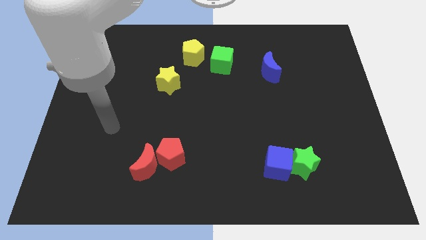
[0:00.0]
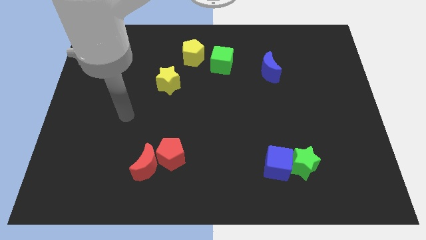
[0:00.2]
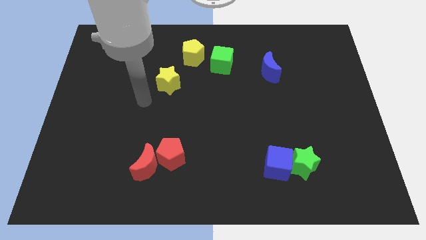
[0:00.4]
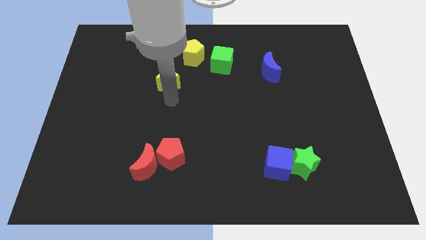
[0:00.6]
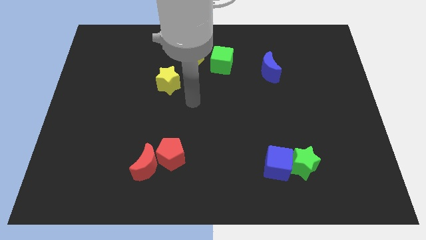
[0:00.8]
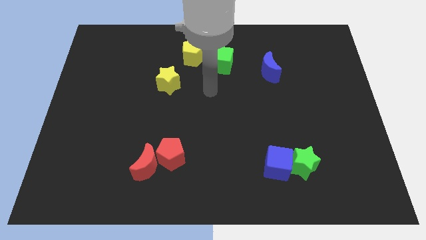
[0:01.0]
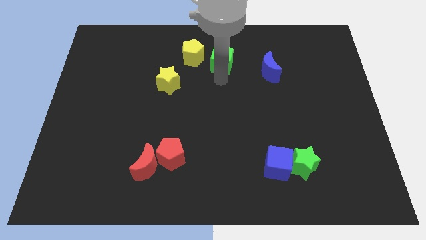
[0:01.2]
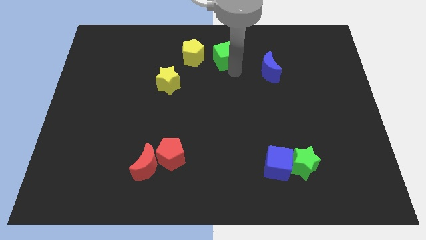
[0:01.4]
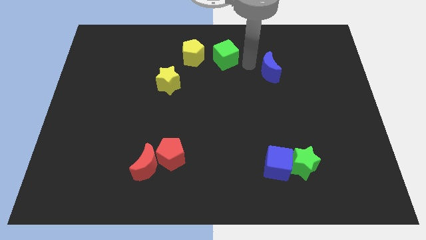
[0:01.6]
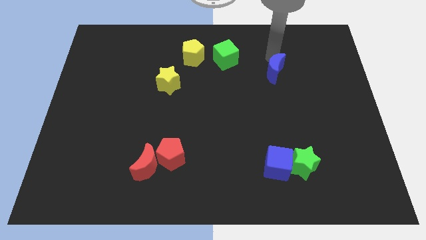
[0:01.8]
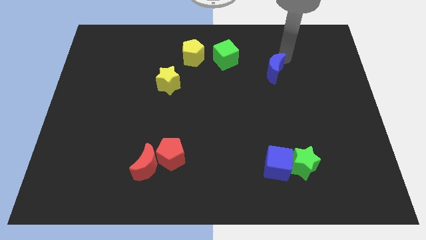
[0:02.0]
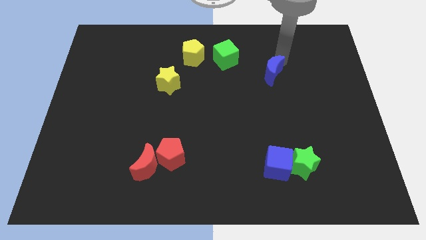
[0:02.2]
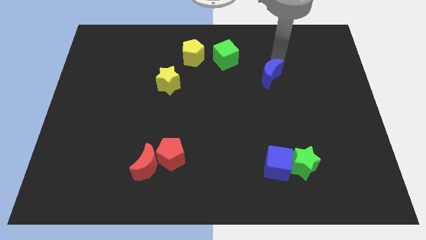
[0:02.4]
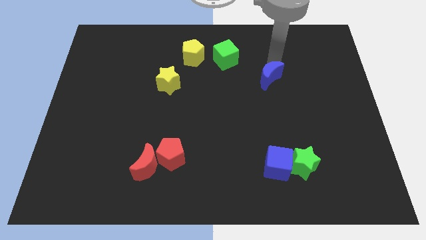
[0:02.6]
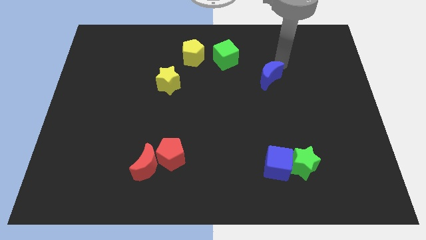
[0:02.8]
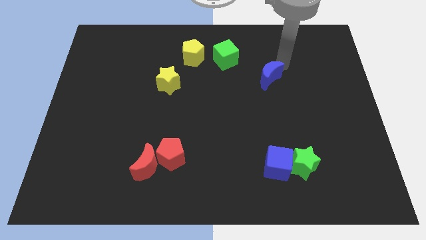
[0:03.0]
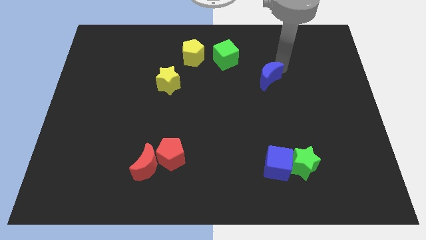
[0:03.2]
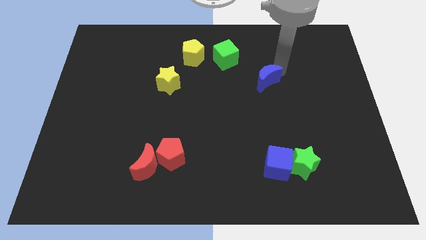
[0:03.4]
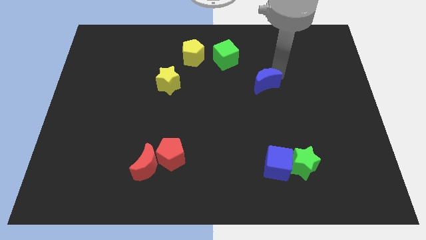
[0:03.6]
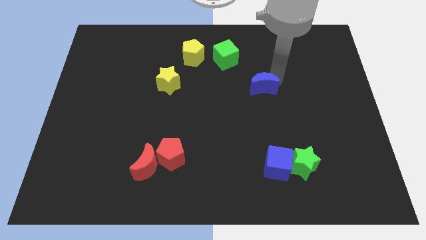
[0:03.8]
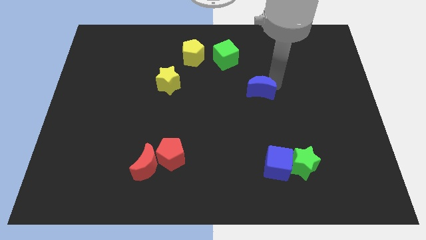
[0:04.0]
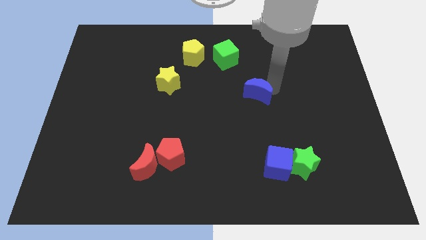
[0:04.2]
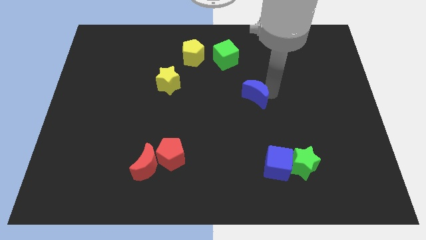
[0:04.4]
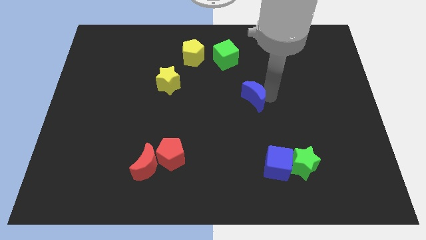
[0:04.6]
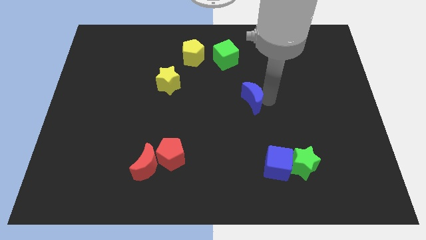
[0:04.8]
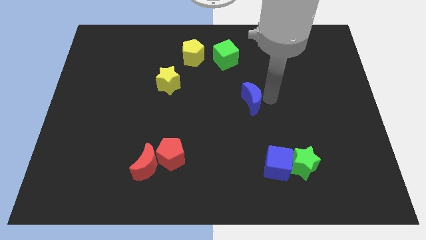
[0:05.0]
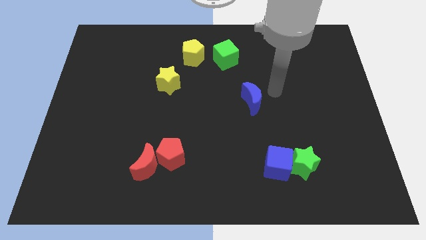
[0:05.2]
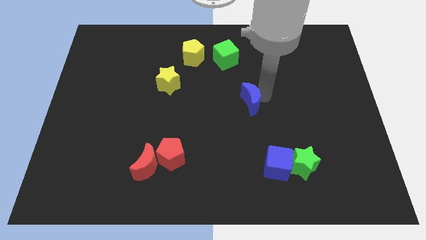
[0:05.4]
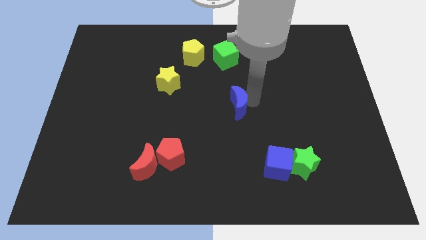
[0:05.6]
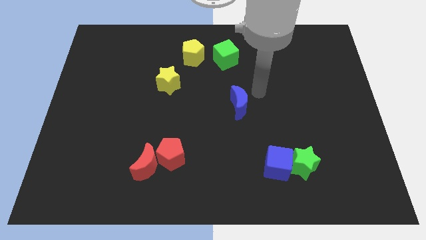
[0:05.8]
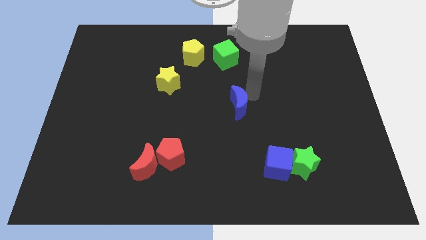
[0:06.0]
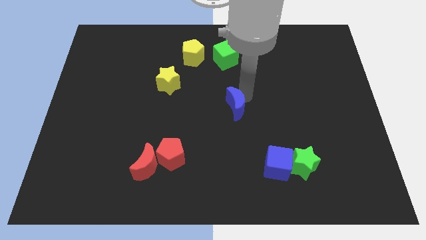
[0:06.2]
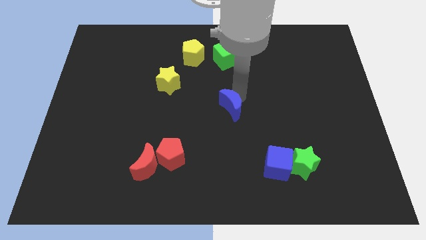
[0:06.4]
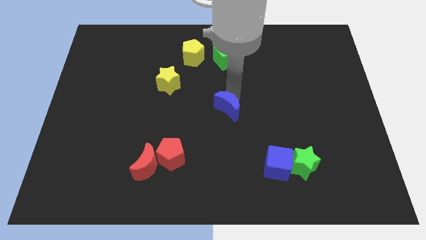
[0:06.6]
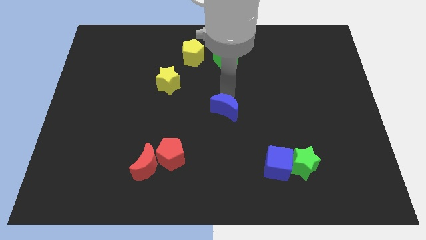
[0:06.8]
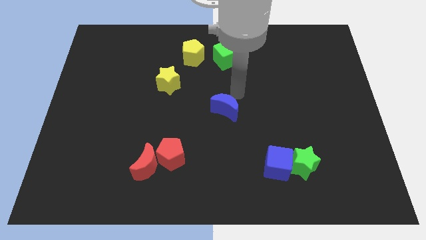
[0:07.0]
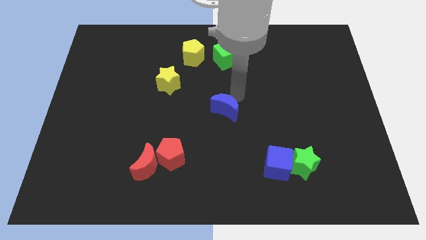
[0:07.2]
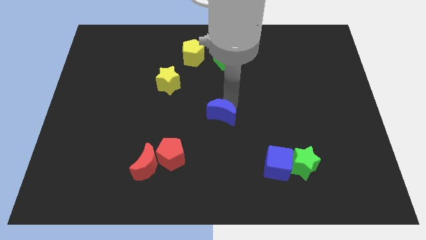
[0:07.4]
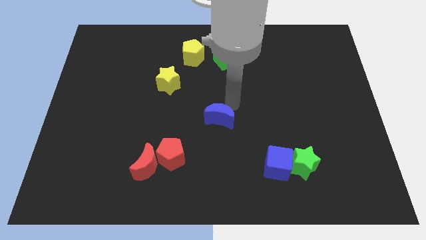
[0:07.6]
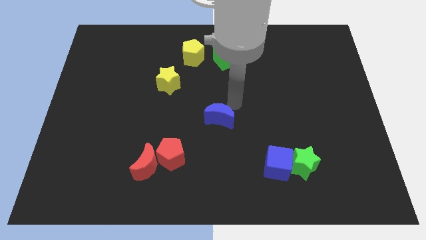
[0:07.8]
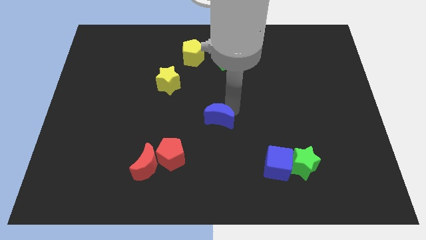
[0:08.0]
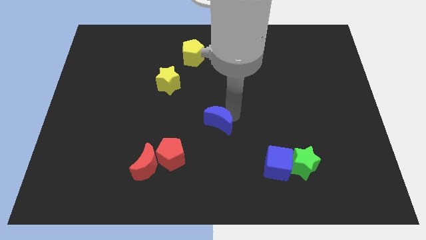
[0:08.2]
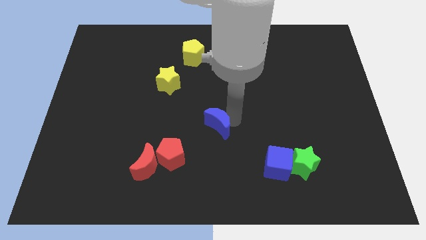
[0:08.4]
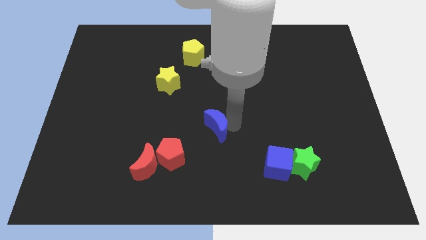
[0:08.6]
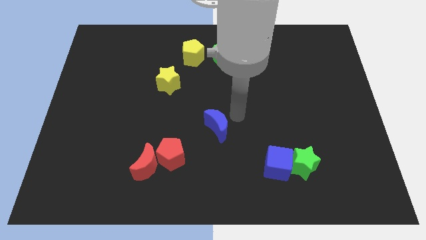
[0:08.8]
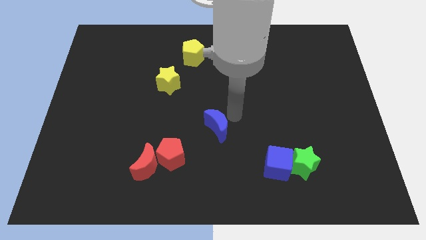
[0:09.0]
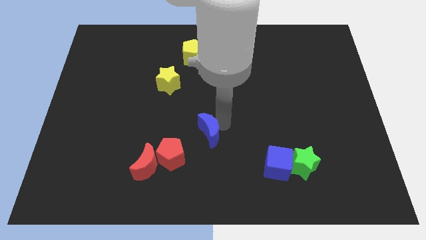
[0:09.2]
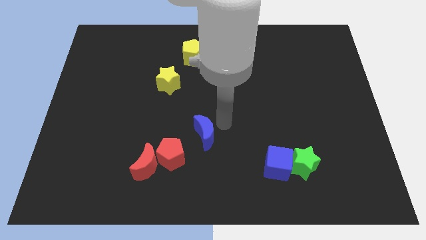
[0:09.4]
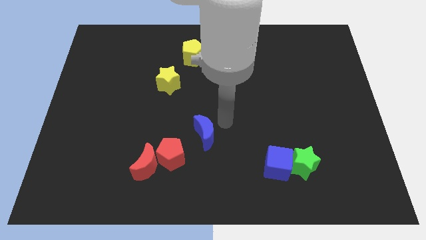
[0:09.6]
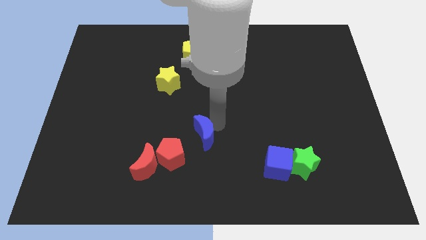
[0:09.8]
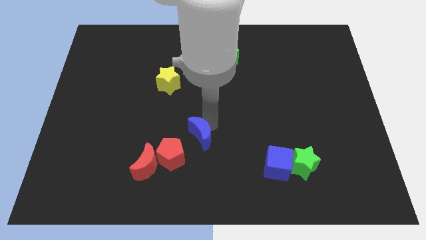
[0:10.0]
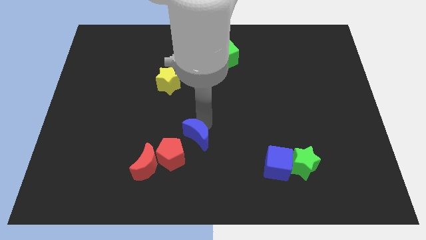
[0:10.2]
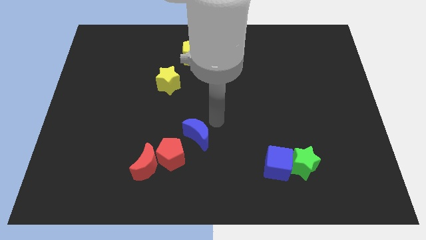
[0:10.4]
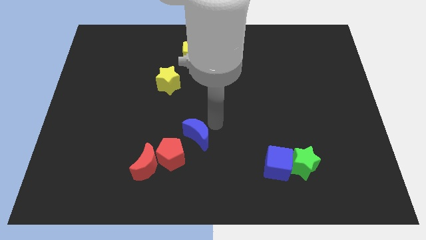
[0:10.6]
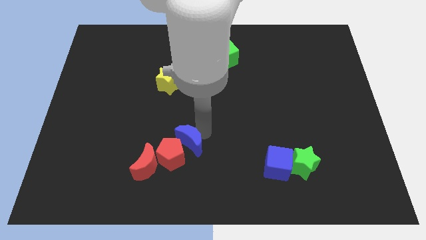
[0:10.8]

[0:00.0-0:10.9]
slide the blue moon towards the red pentagon

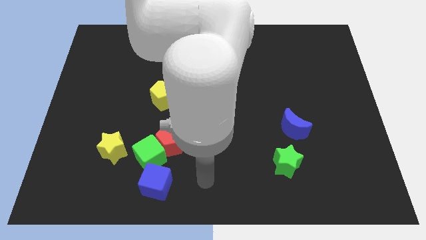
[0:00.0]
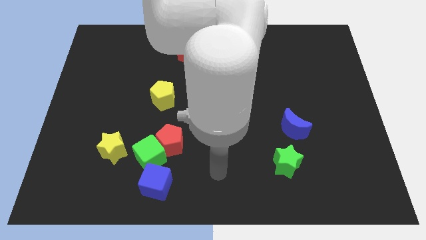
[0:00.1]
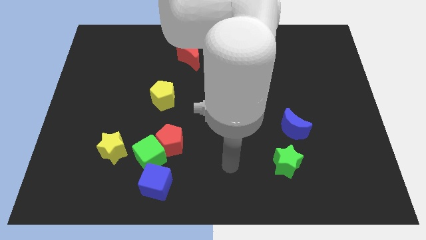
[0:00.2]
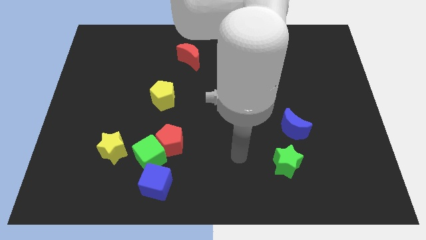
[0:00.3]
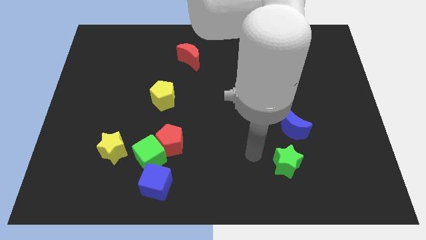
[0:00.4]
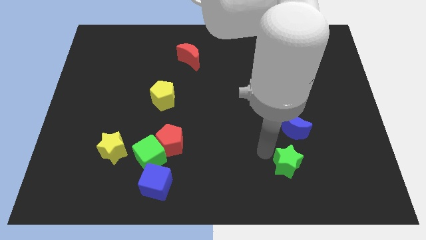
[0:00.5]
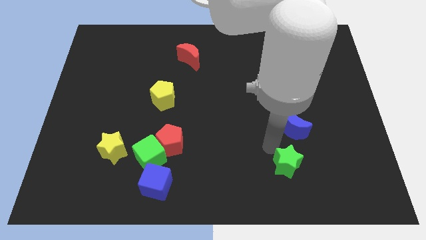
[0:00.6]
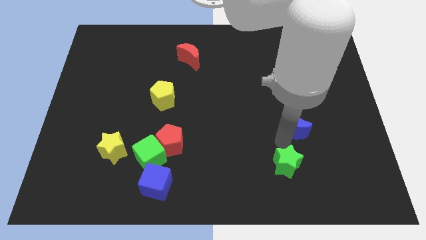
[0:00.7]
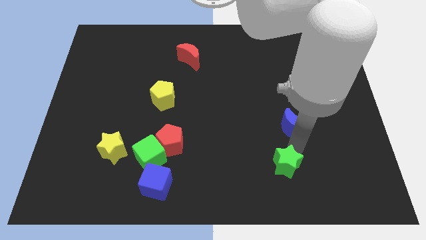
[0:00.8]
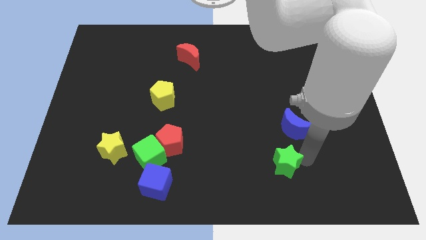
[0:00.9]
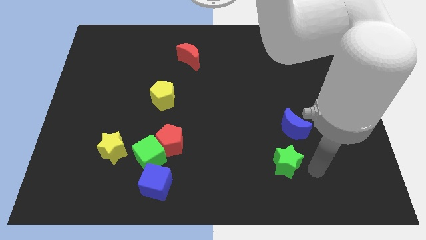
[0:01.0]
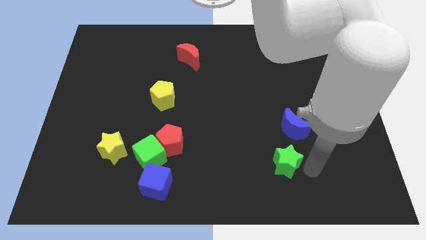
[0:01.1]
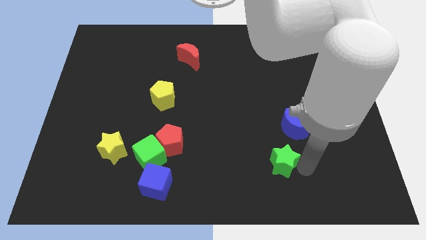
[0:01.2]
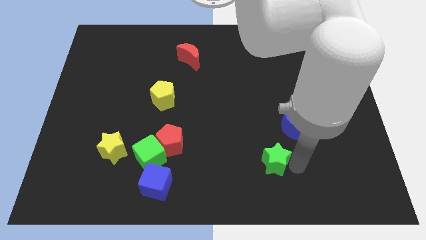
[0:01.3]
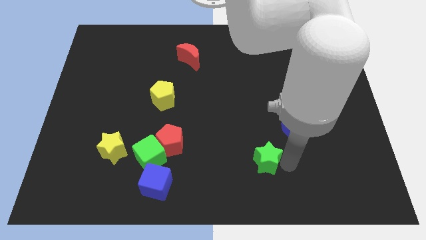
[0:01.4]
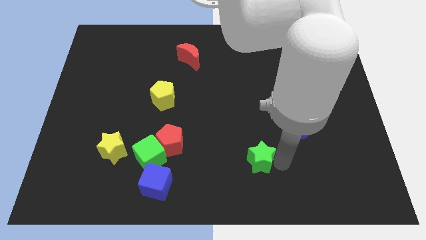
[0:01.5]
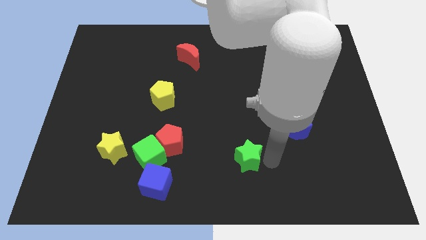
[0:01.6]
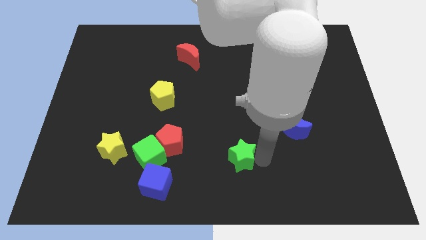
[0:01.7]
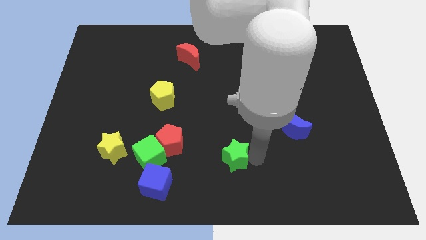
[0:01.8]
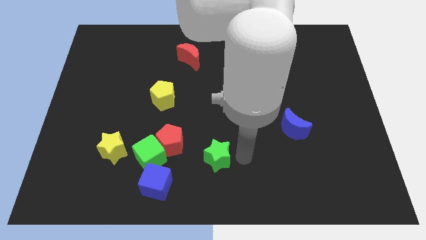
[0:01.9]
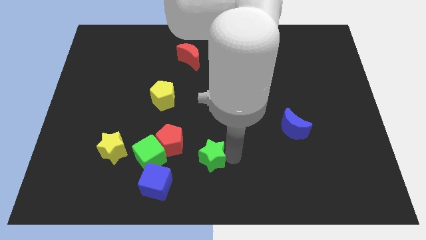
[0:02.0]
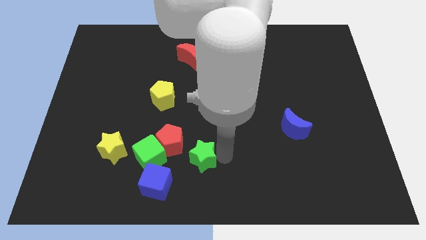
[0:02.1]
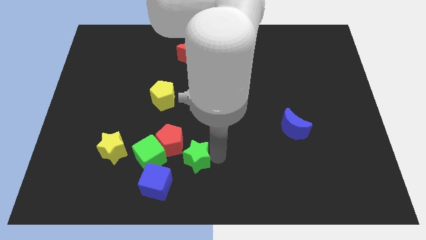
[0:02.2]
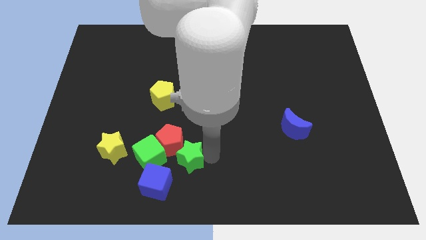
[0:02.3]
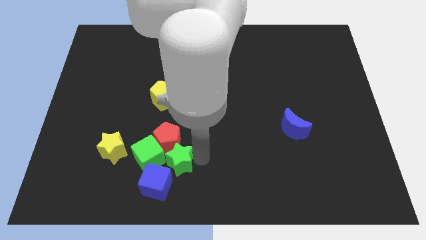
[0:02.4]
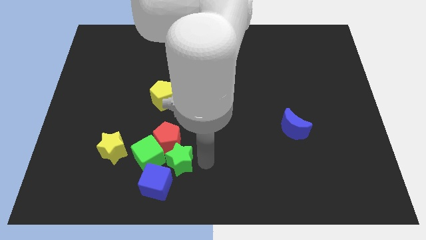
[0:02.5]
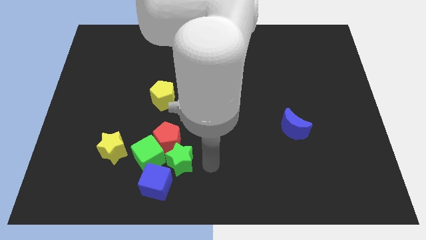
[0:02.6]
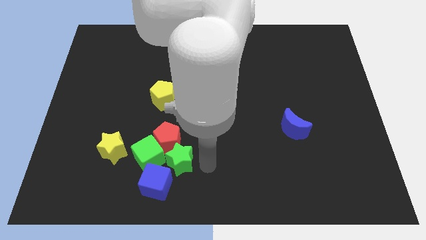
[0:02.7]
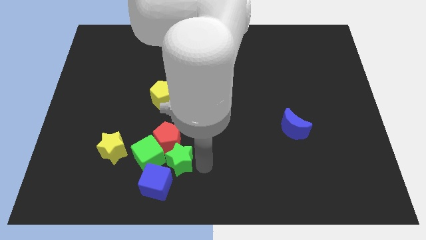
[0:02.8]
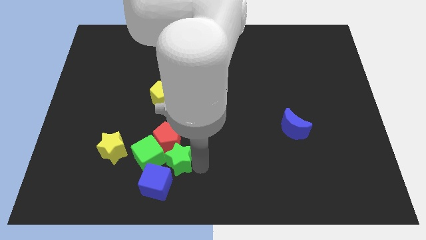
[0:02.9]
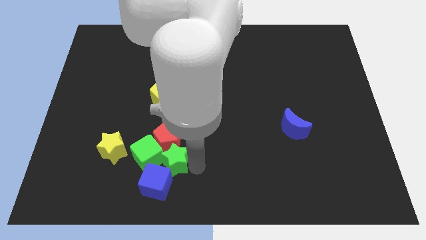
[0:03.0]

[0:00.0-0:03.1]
move the green star towards the green cube
